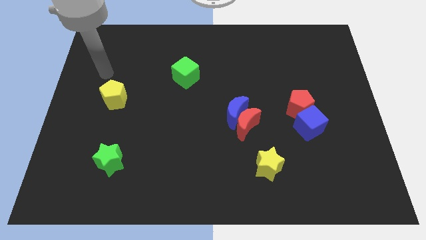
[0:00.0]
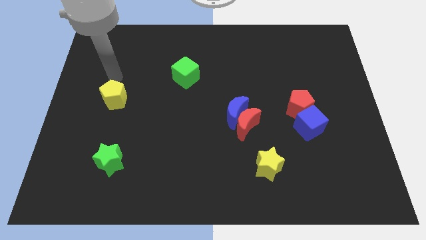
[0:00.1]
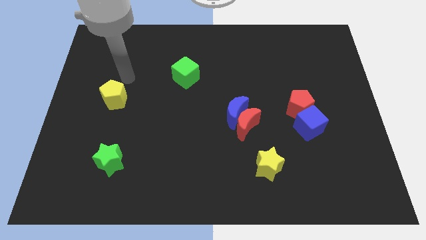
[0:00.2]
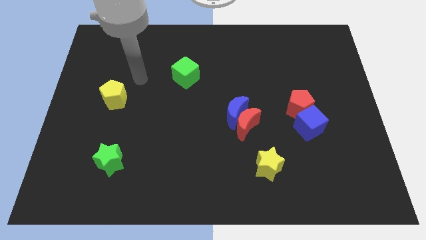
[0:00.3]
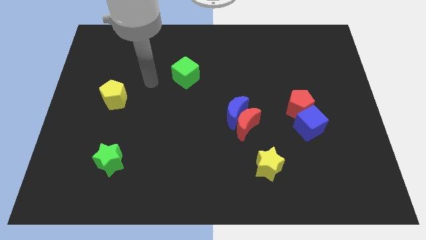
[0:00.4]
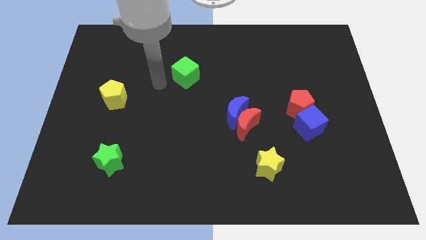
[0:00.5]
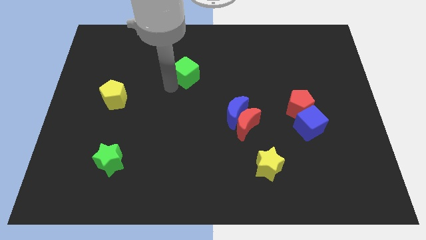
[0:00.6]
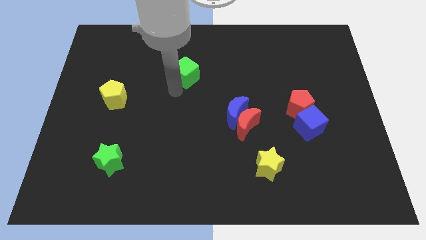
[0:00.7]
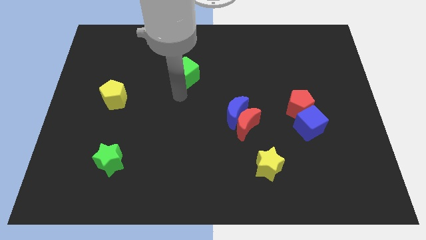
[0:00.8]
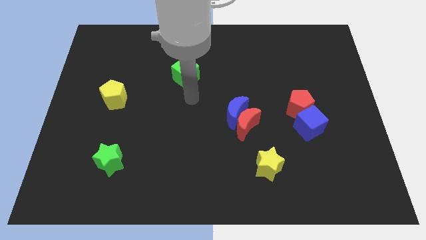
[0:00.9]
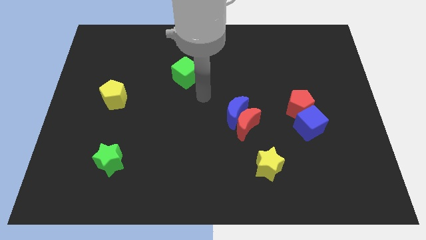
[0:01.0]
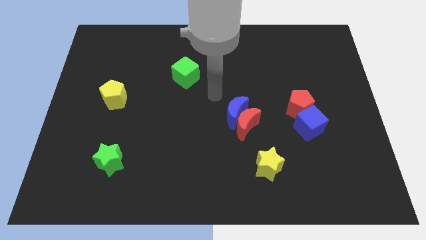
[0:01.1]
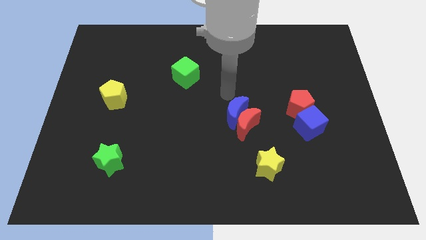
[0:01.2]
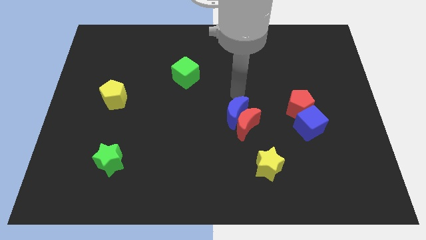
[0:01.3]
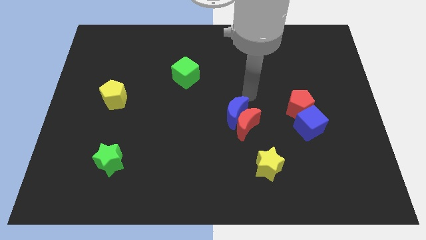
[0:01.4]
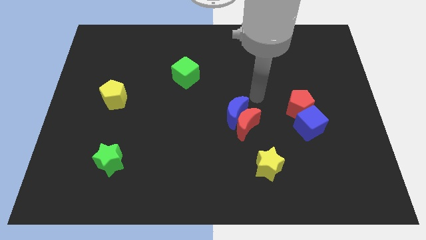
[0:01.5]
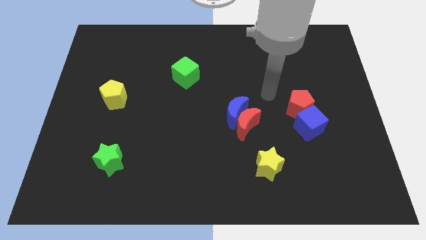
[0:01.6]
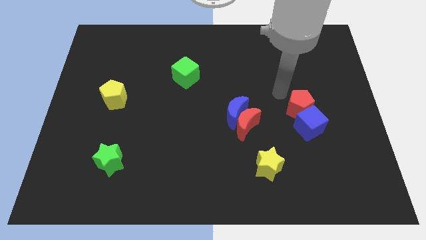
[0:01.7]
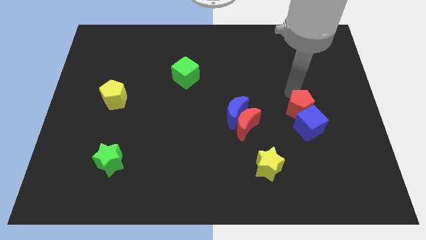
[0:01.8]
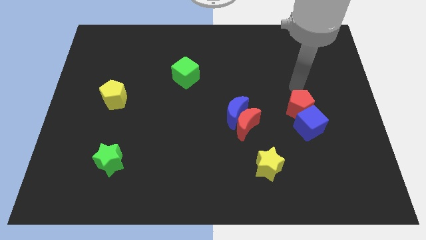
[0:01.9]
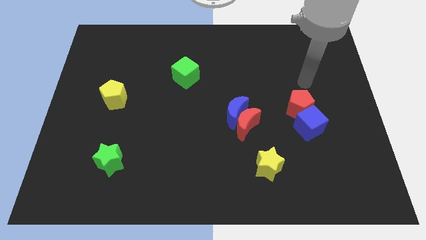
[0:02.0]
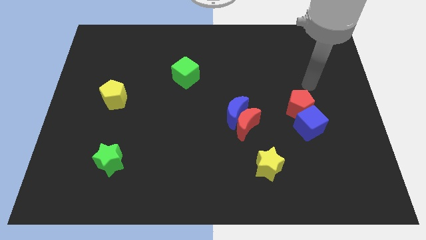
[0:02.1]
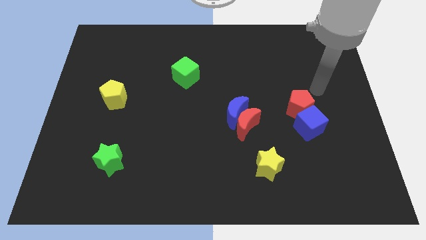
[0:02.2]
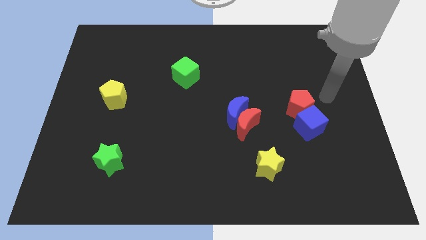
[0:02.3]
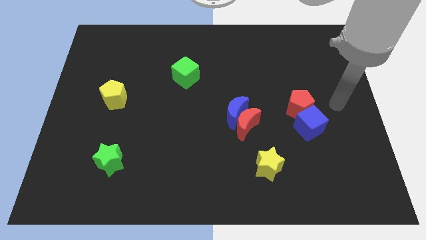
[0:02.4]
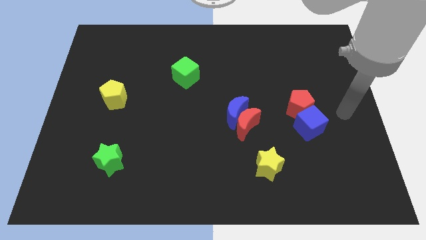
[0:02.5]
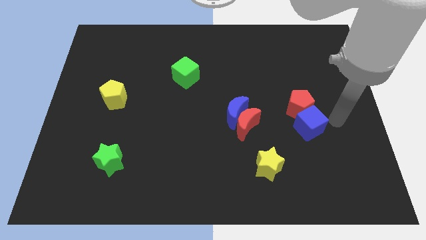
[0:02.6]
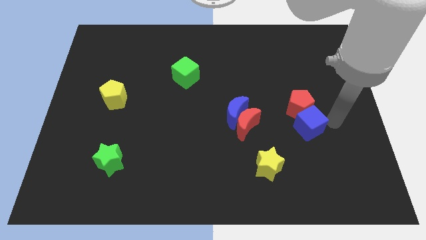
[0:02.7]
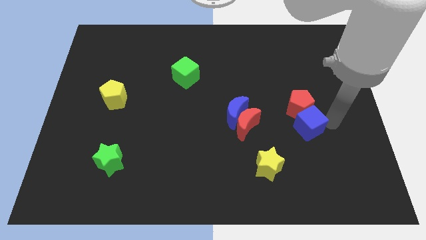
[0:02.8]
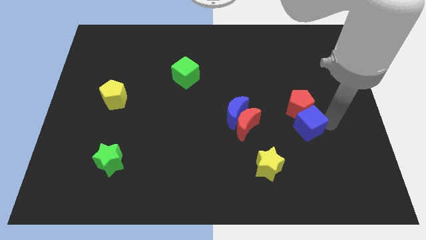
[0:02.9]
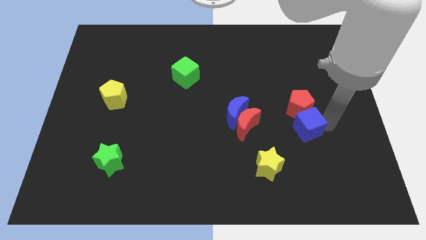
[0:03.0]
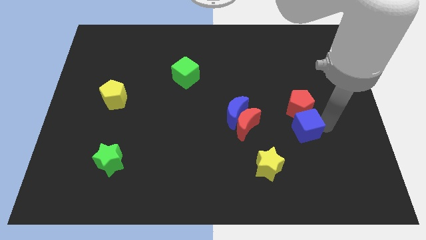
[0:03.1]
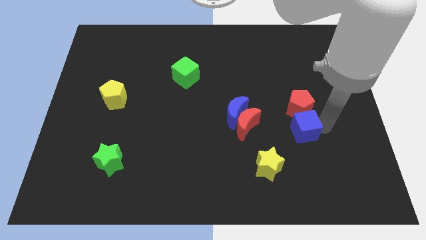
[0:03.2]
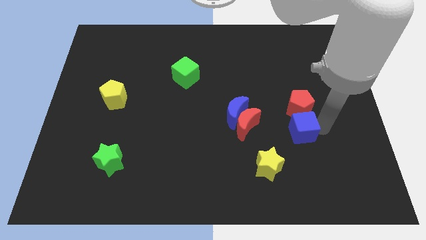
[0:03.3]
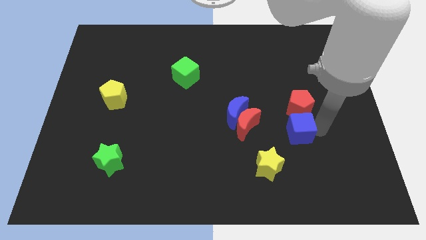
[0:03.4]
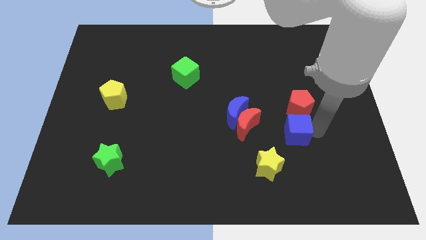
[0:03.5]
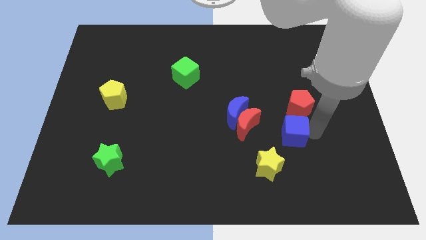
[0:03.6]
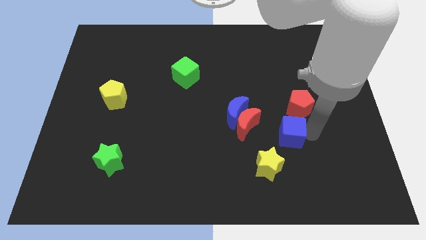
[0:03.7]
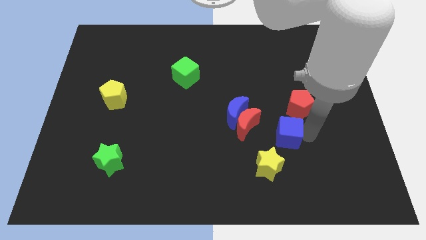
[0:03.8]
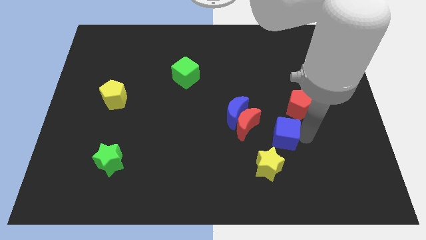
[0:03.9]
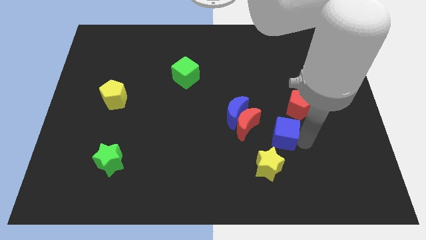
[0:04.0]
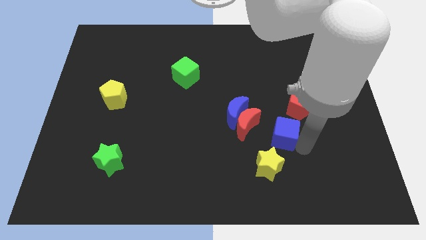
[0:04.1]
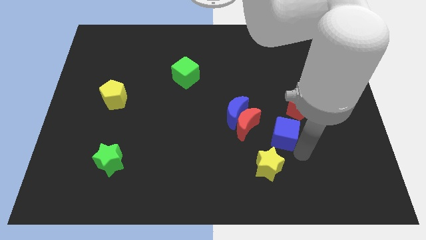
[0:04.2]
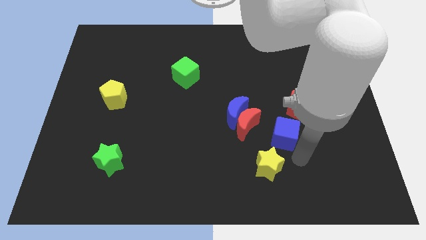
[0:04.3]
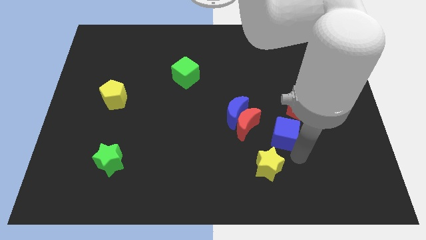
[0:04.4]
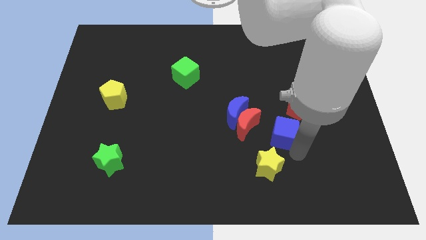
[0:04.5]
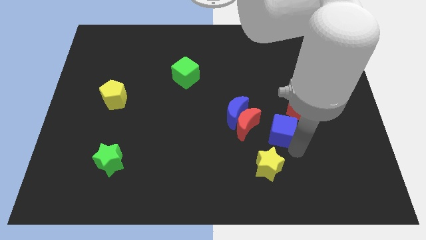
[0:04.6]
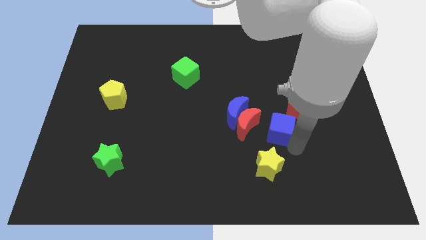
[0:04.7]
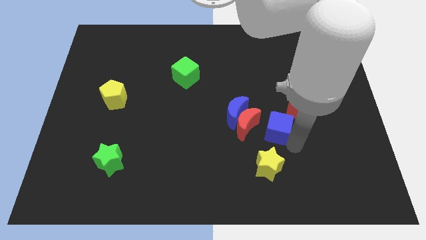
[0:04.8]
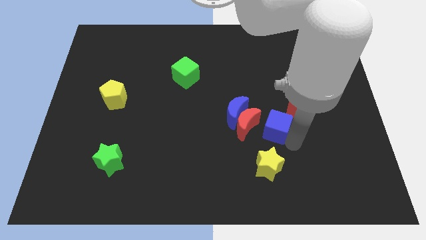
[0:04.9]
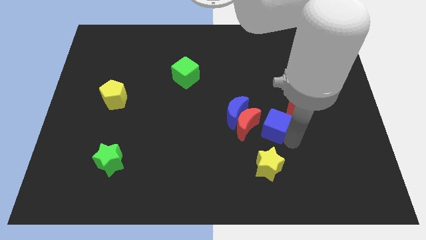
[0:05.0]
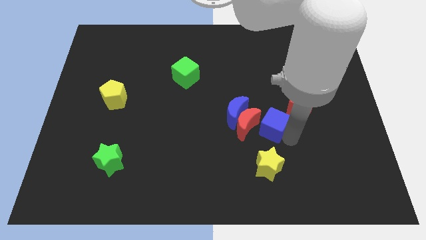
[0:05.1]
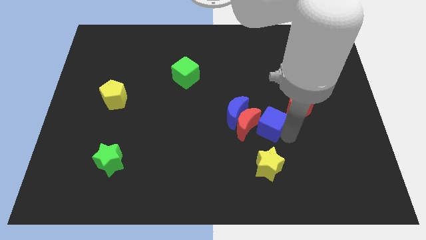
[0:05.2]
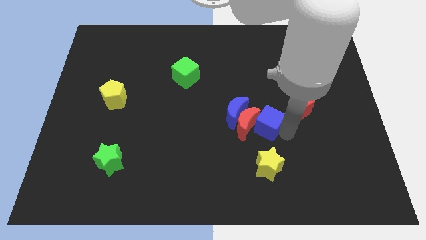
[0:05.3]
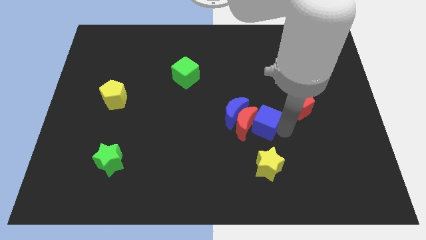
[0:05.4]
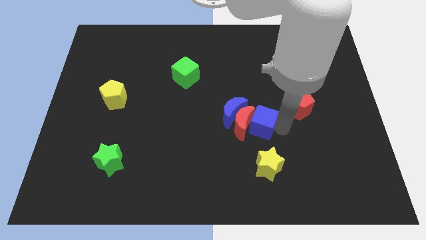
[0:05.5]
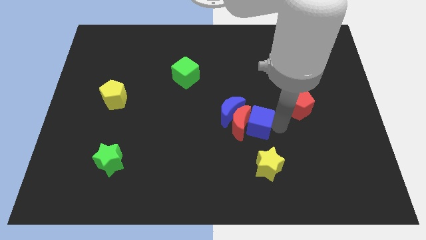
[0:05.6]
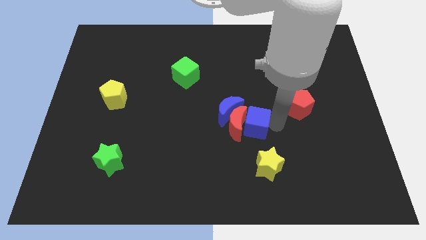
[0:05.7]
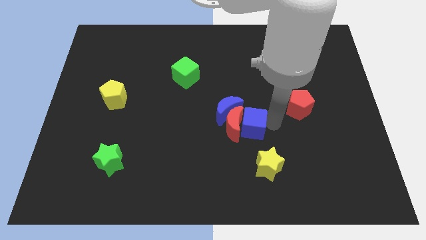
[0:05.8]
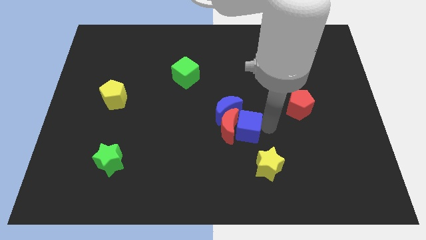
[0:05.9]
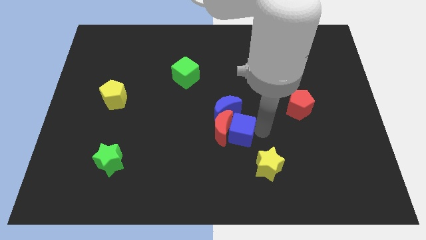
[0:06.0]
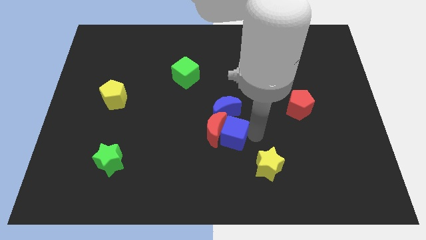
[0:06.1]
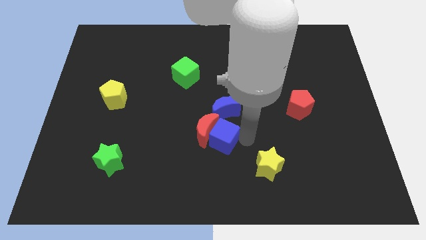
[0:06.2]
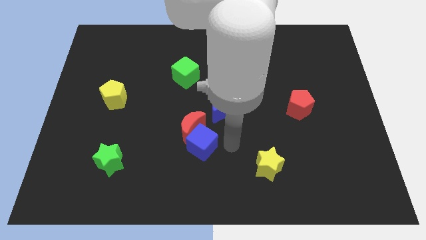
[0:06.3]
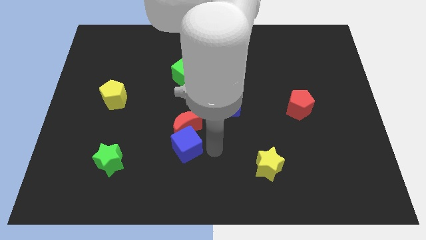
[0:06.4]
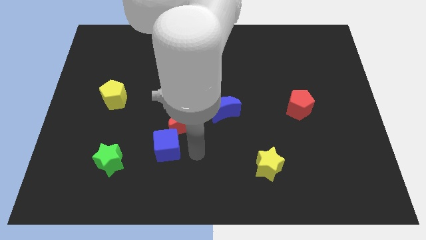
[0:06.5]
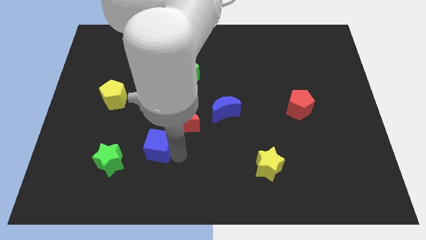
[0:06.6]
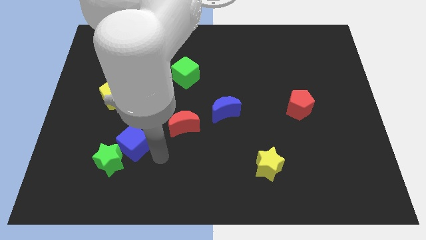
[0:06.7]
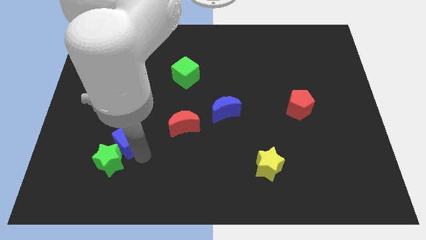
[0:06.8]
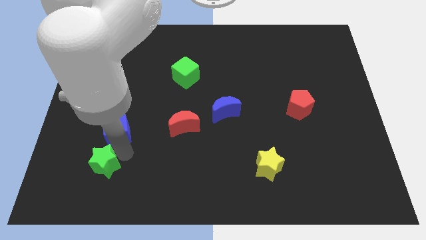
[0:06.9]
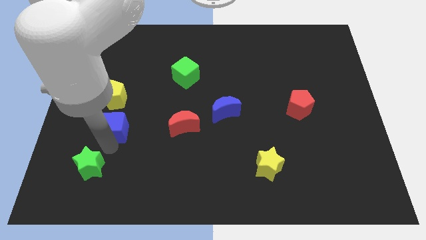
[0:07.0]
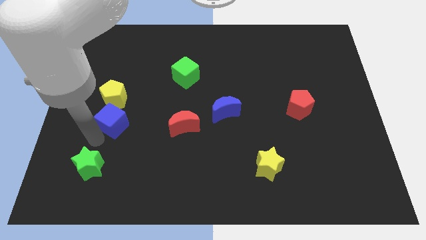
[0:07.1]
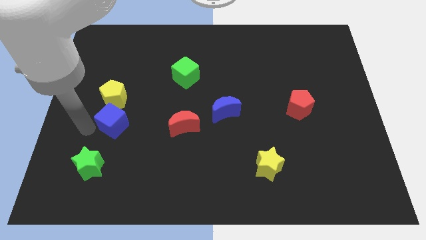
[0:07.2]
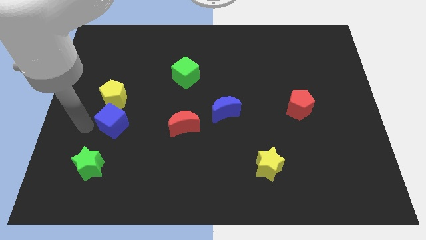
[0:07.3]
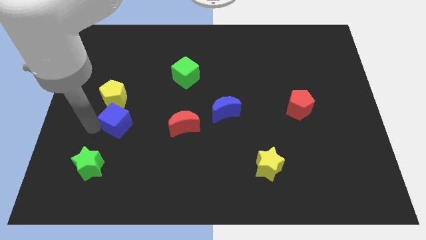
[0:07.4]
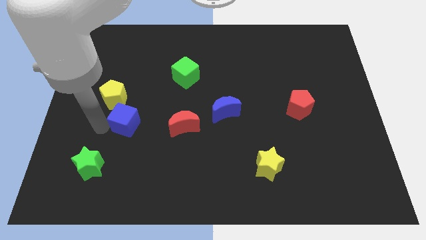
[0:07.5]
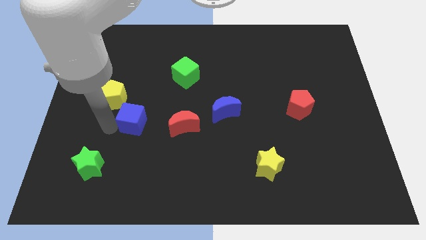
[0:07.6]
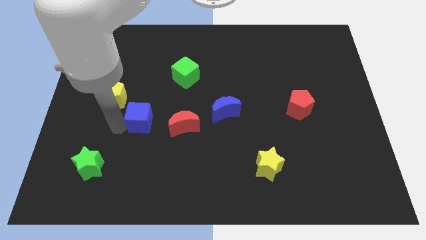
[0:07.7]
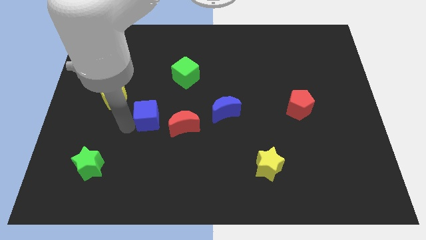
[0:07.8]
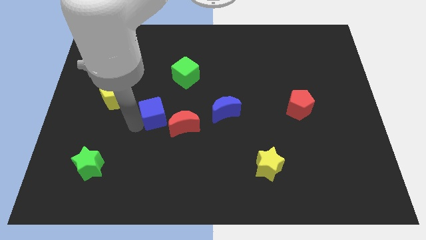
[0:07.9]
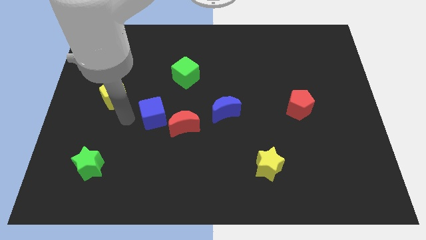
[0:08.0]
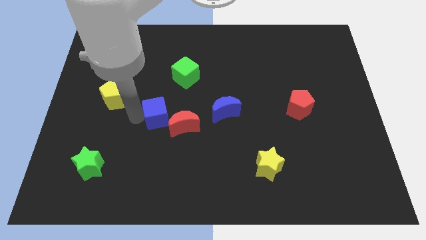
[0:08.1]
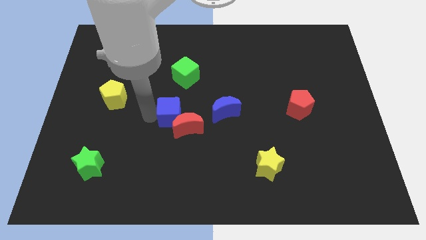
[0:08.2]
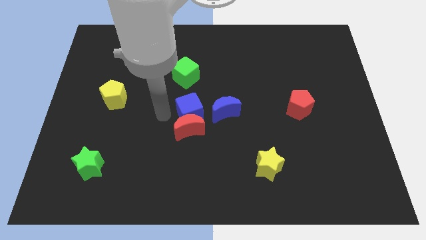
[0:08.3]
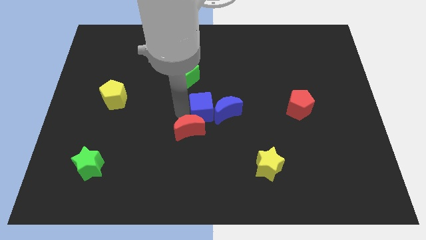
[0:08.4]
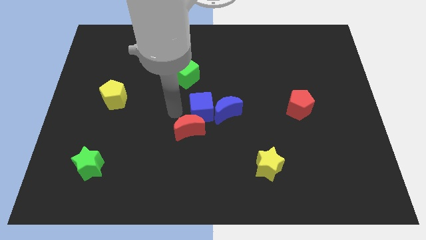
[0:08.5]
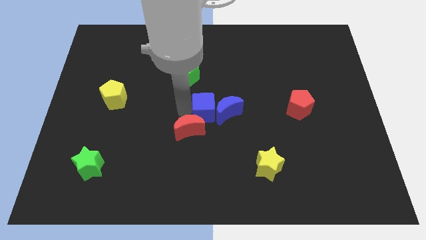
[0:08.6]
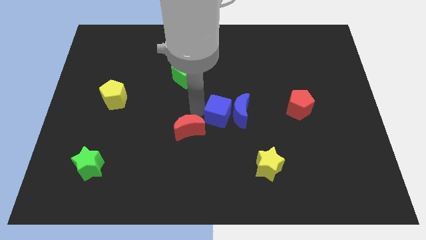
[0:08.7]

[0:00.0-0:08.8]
slightly slide the blue cube up and left
